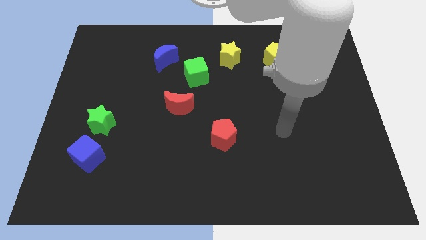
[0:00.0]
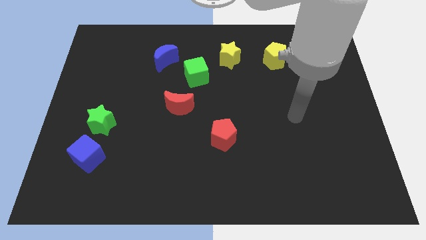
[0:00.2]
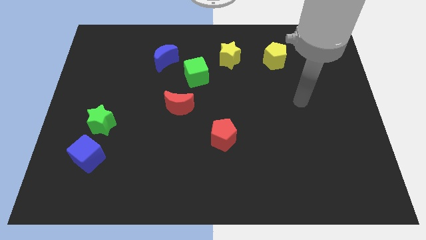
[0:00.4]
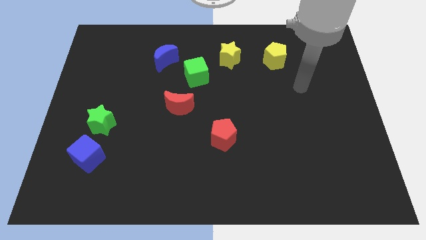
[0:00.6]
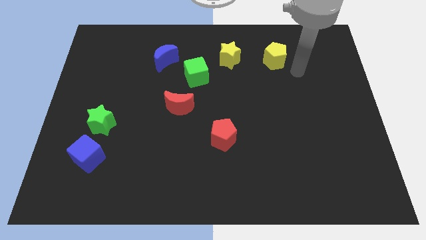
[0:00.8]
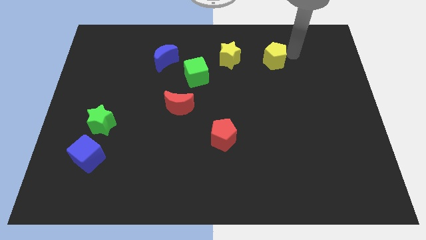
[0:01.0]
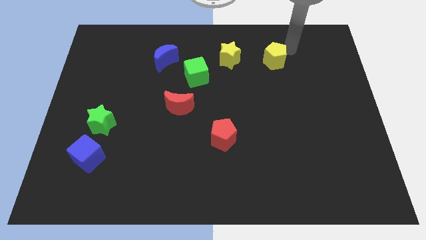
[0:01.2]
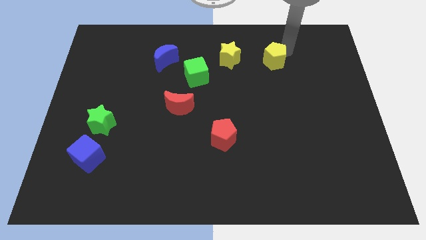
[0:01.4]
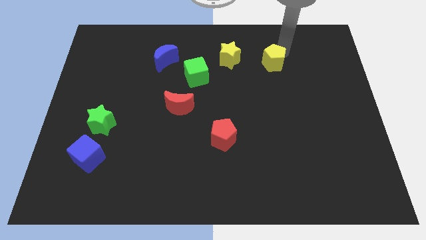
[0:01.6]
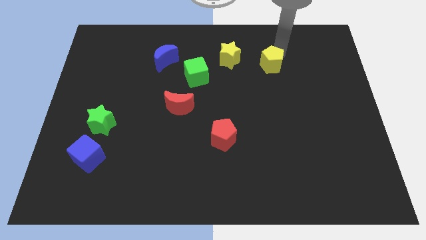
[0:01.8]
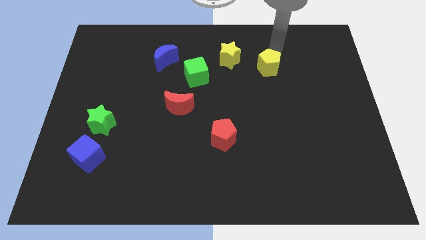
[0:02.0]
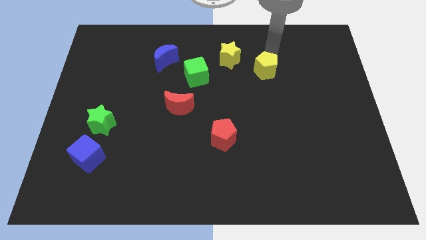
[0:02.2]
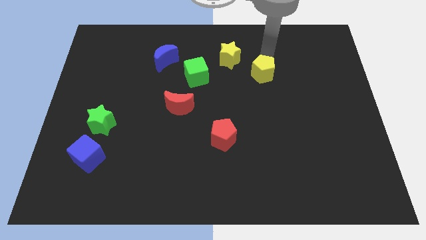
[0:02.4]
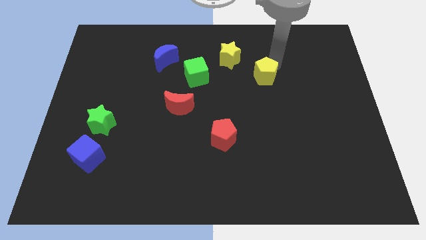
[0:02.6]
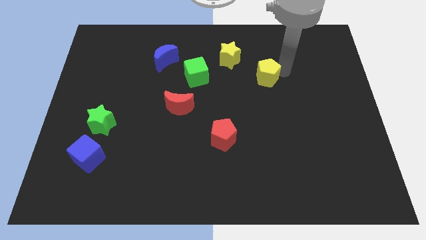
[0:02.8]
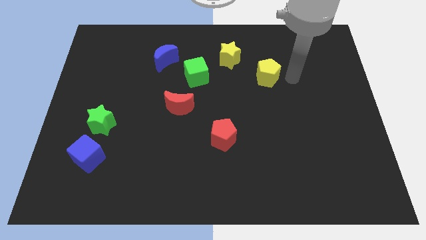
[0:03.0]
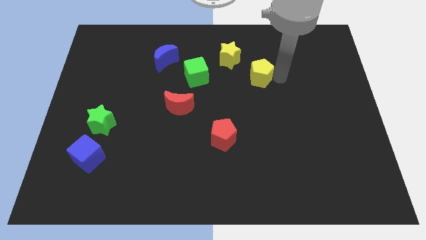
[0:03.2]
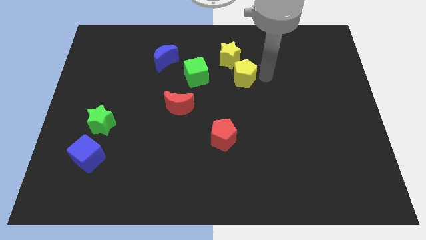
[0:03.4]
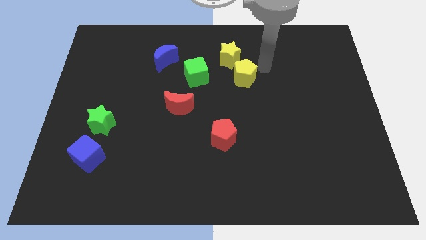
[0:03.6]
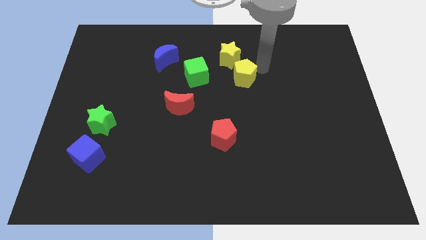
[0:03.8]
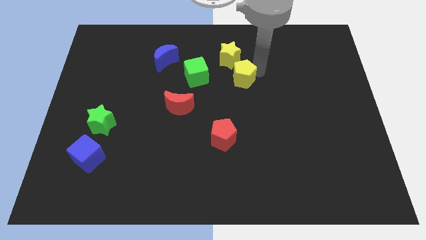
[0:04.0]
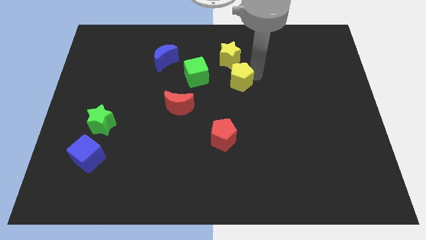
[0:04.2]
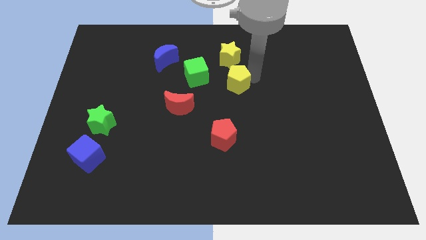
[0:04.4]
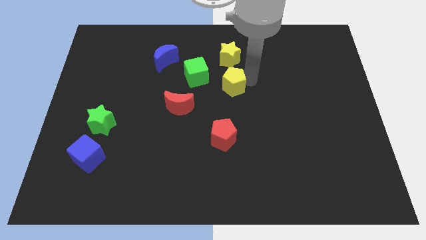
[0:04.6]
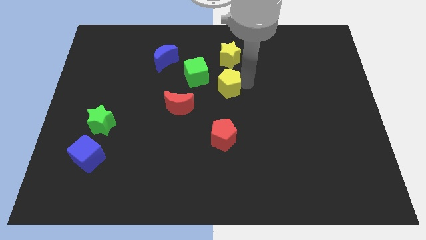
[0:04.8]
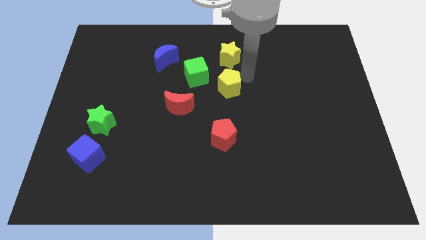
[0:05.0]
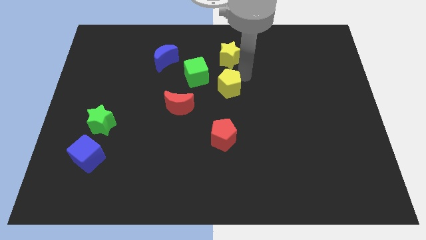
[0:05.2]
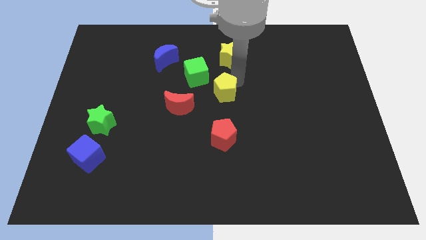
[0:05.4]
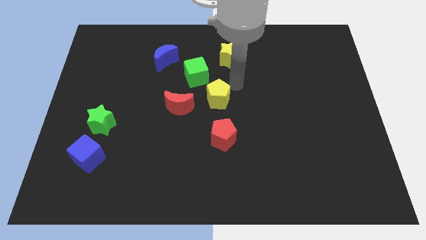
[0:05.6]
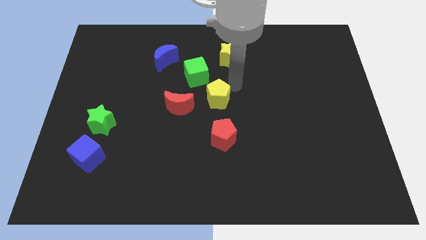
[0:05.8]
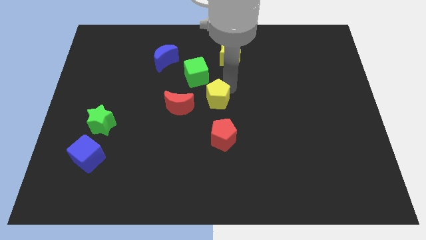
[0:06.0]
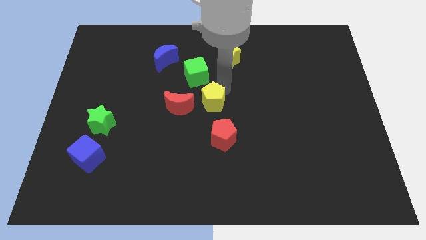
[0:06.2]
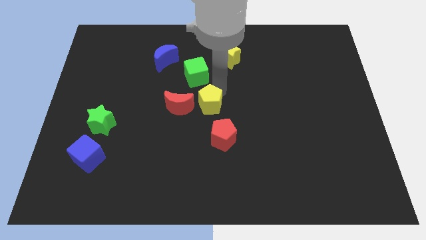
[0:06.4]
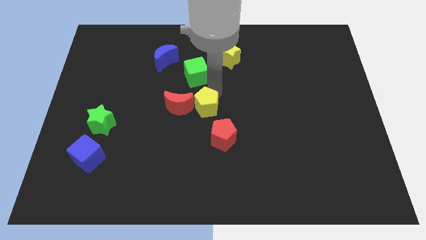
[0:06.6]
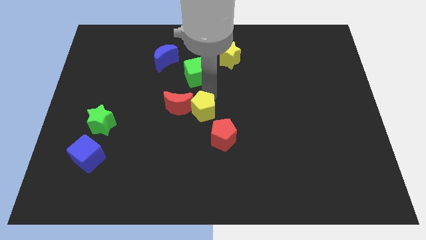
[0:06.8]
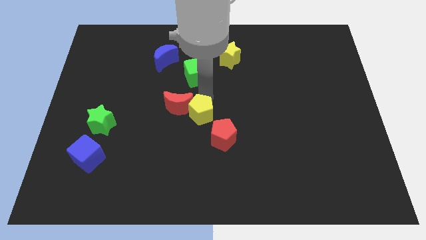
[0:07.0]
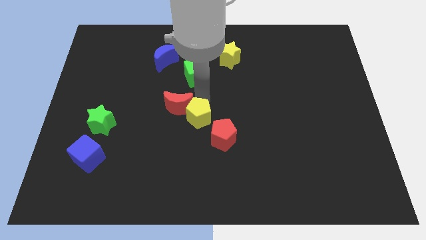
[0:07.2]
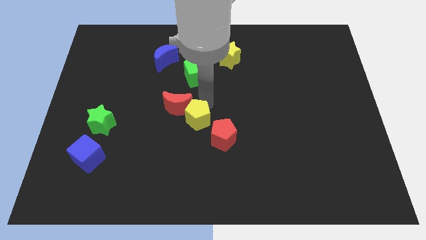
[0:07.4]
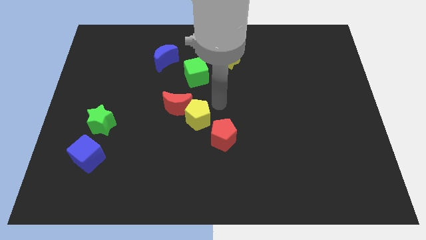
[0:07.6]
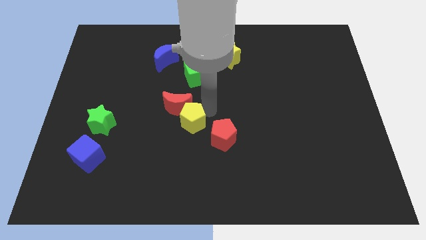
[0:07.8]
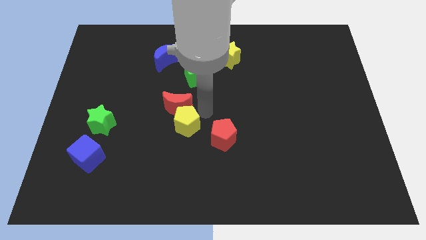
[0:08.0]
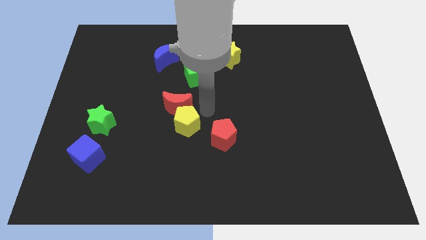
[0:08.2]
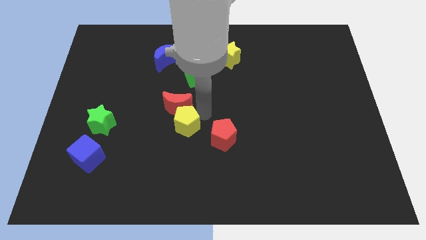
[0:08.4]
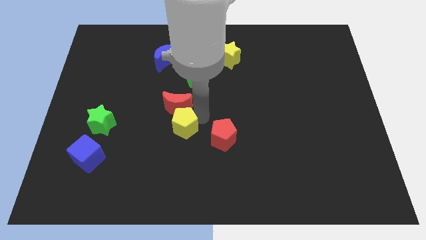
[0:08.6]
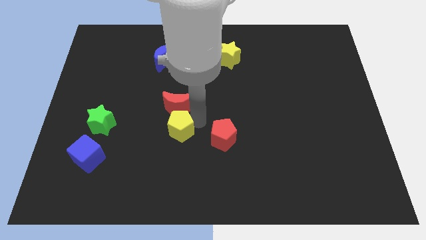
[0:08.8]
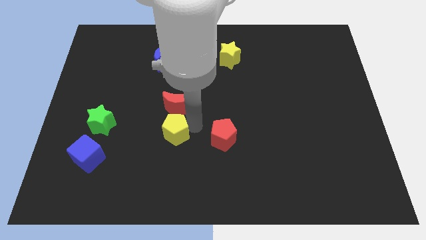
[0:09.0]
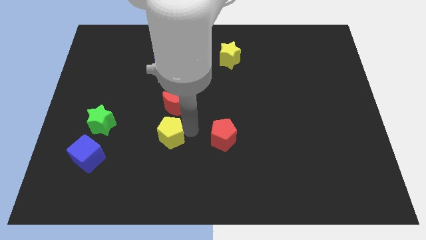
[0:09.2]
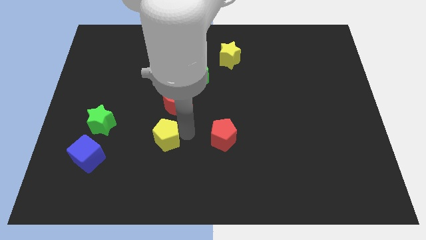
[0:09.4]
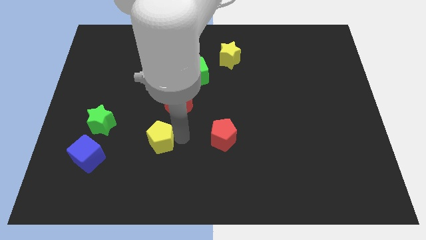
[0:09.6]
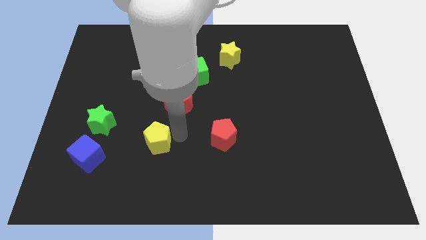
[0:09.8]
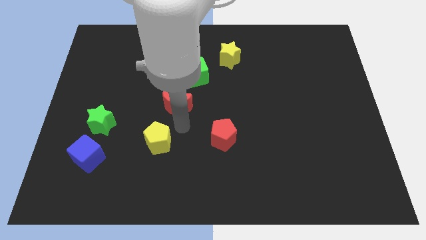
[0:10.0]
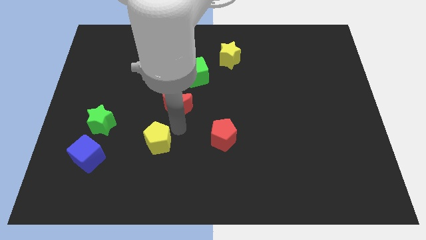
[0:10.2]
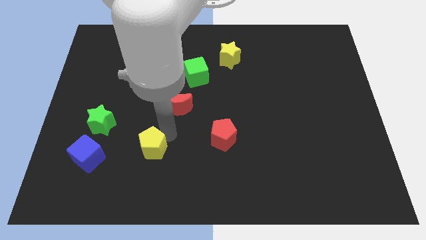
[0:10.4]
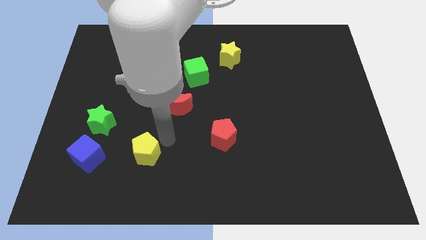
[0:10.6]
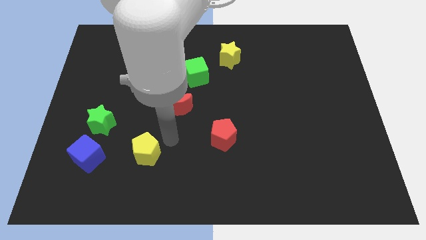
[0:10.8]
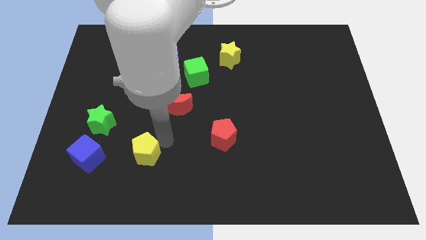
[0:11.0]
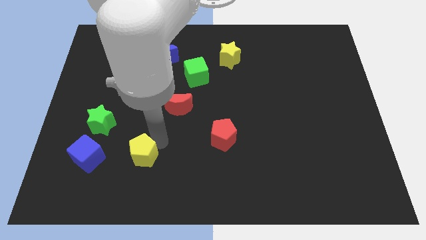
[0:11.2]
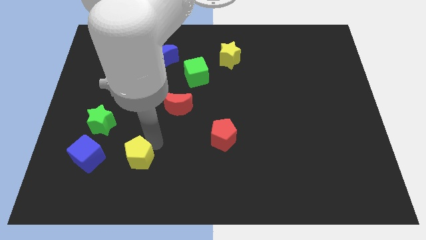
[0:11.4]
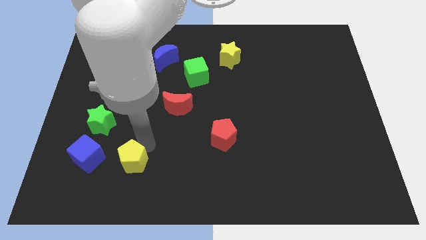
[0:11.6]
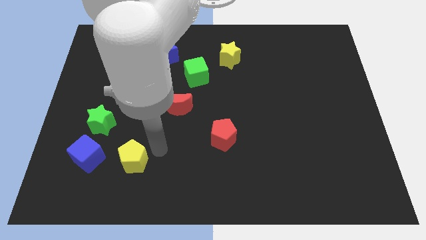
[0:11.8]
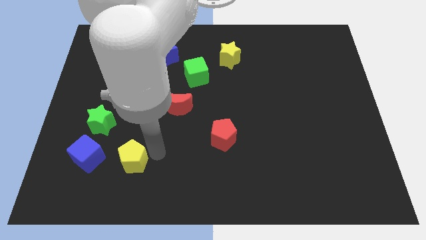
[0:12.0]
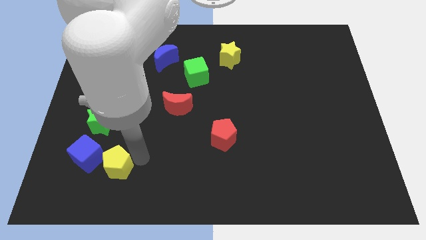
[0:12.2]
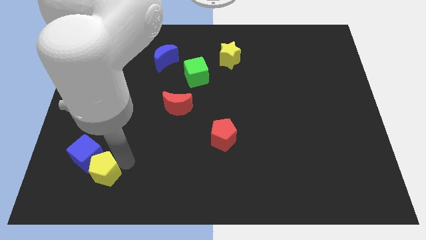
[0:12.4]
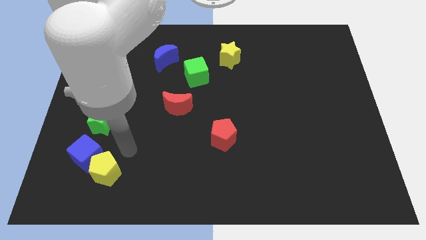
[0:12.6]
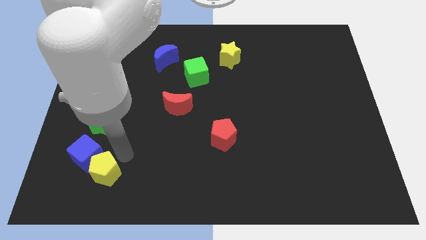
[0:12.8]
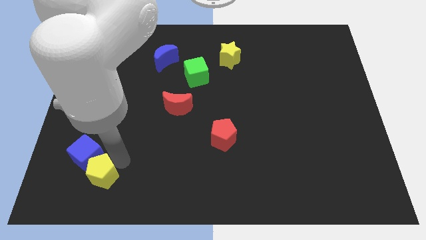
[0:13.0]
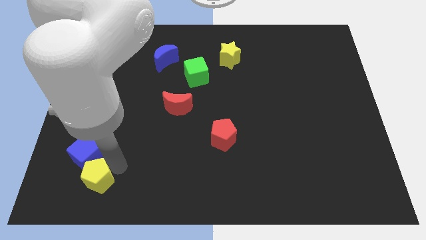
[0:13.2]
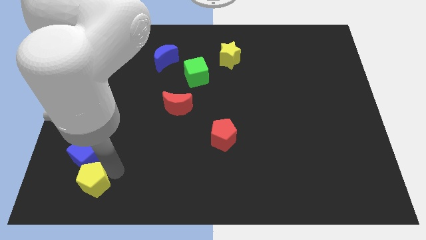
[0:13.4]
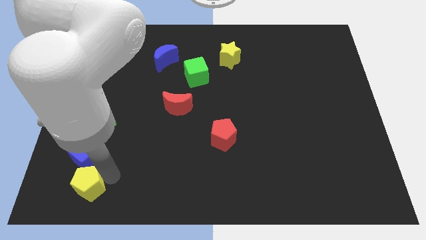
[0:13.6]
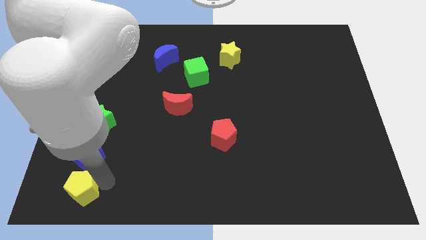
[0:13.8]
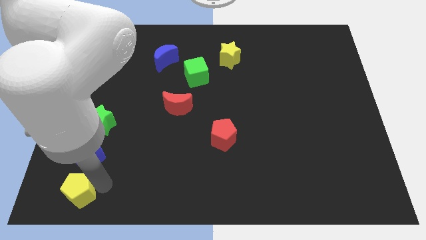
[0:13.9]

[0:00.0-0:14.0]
move the yellow pentagon to the bottom left corner

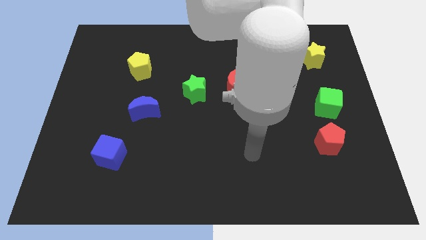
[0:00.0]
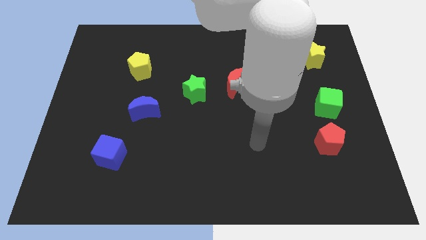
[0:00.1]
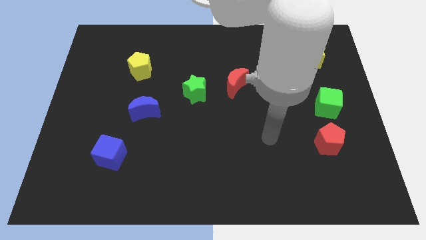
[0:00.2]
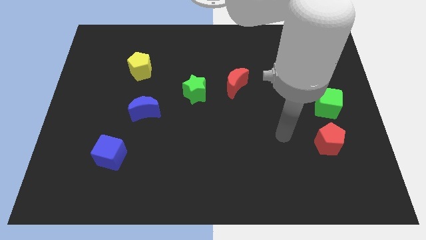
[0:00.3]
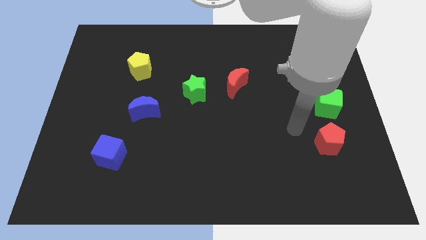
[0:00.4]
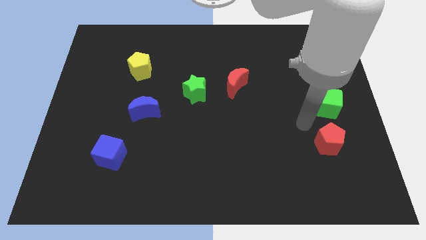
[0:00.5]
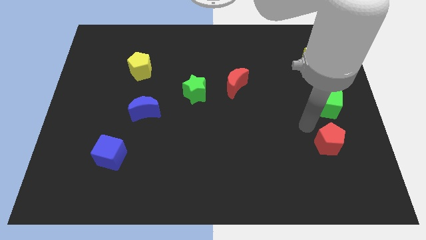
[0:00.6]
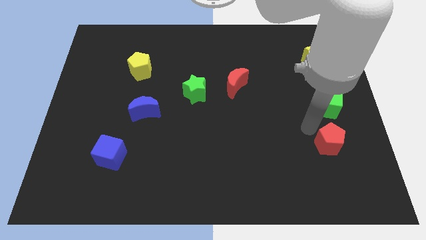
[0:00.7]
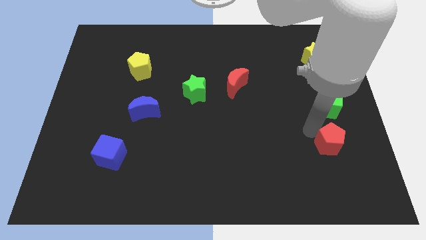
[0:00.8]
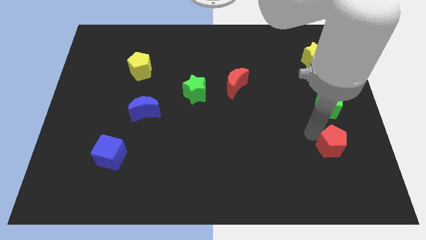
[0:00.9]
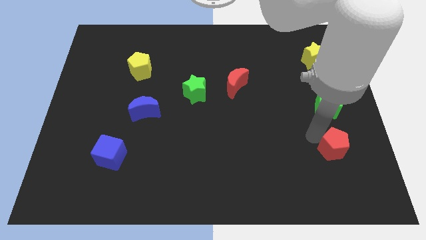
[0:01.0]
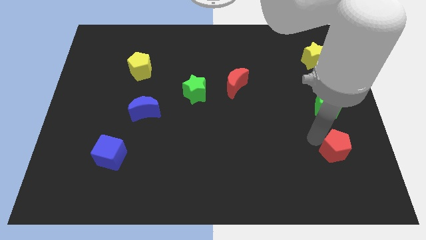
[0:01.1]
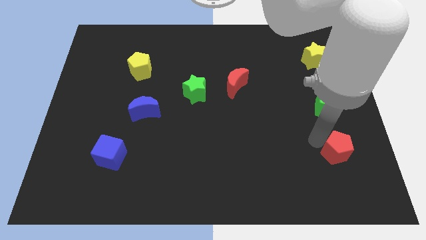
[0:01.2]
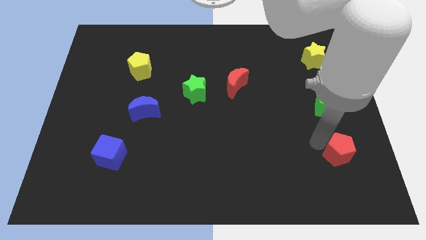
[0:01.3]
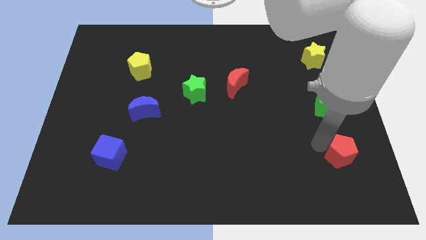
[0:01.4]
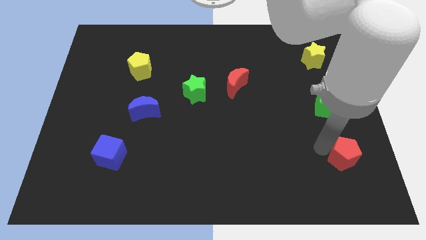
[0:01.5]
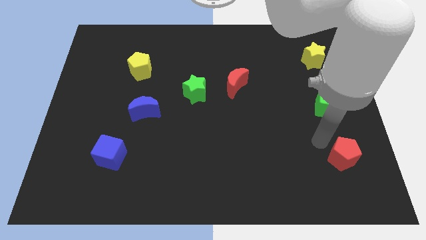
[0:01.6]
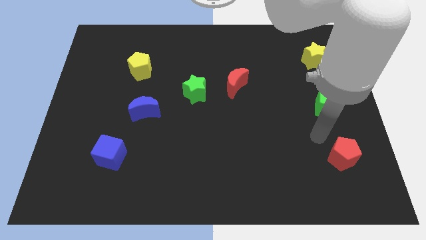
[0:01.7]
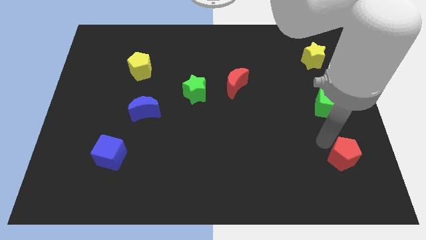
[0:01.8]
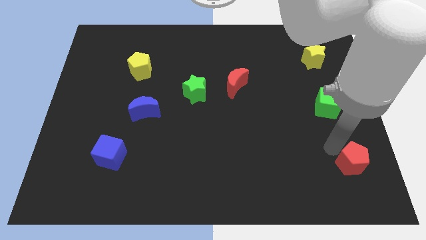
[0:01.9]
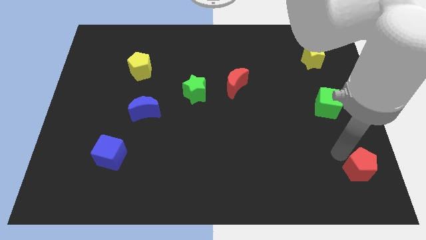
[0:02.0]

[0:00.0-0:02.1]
move the red pentagon to the lower right corner
